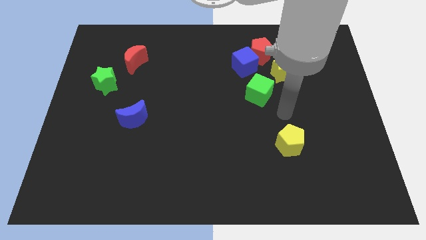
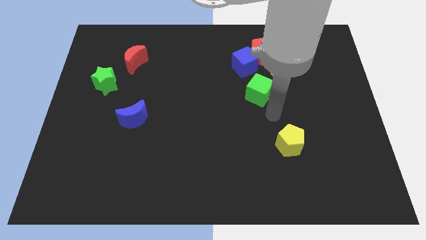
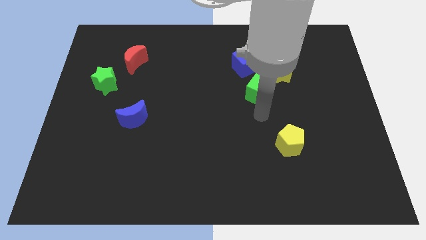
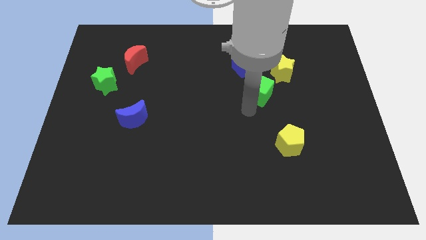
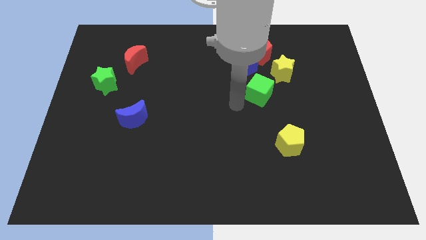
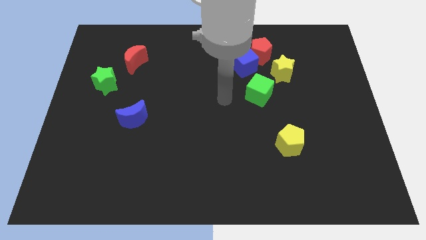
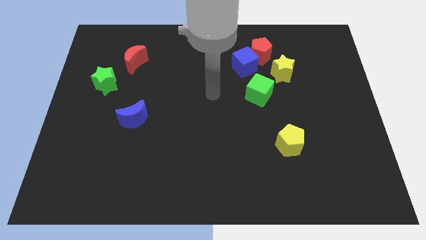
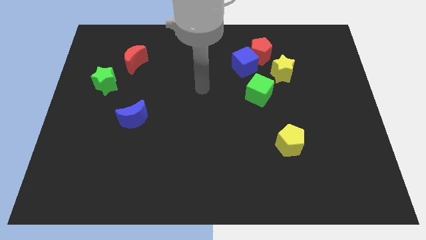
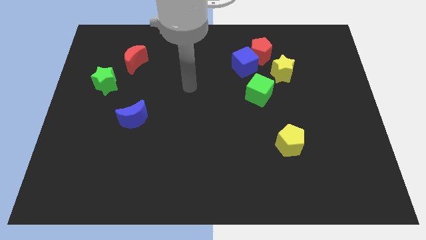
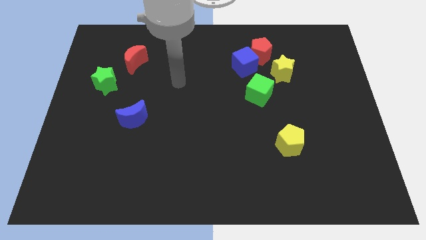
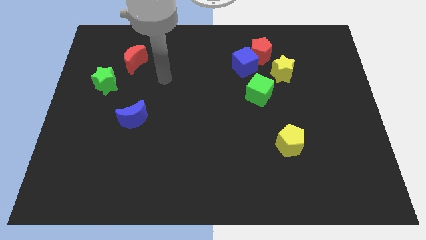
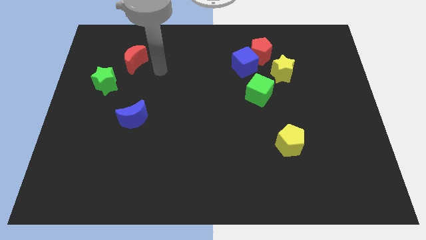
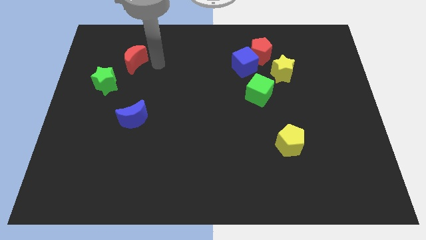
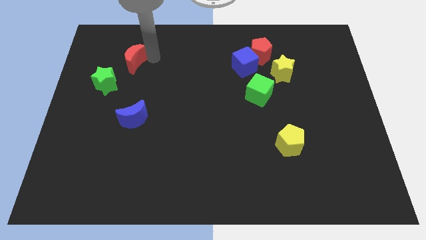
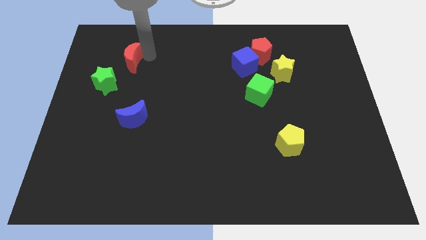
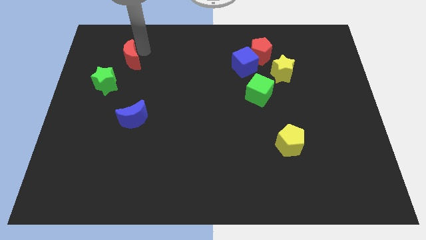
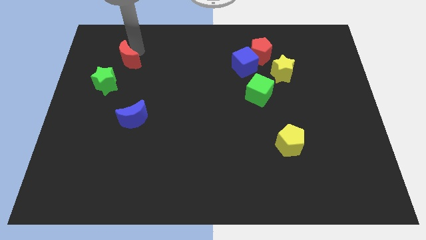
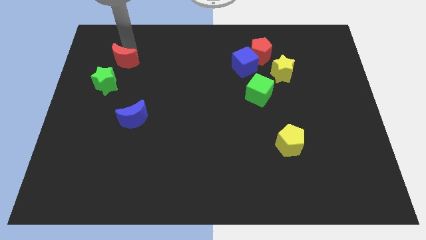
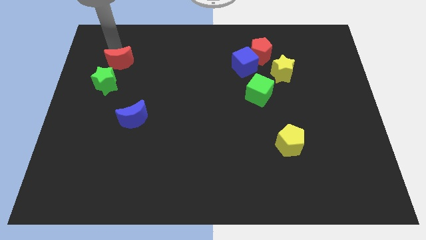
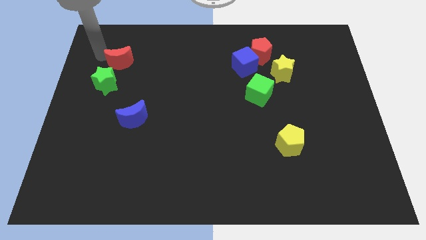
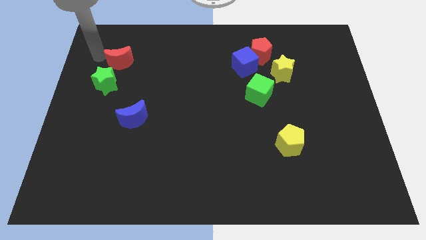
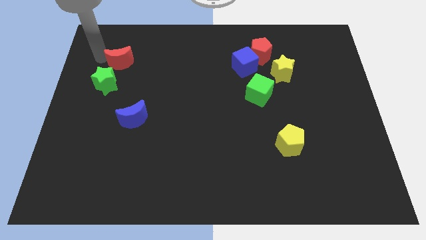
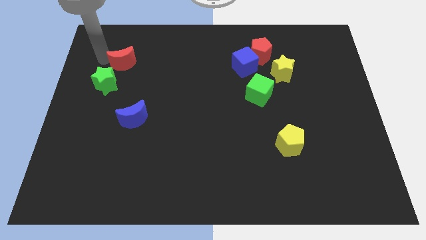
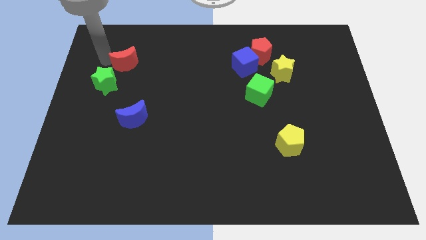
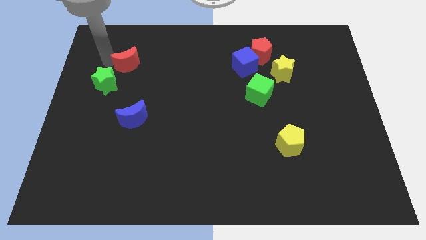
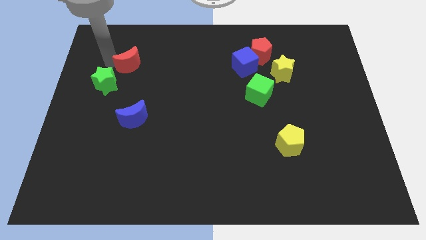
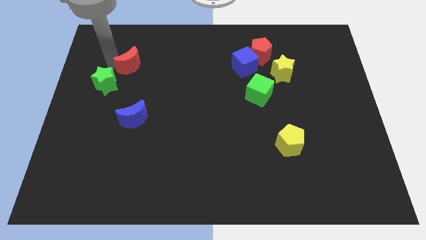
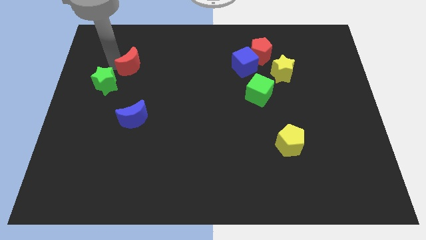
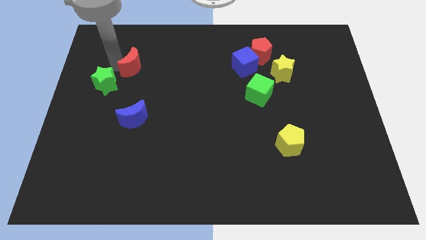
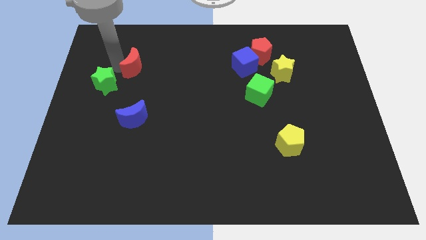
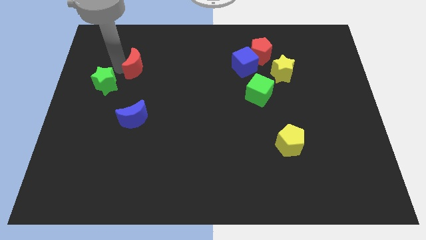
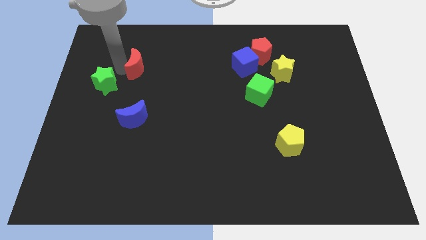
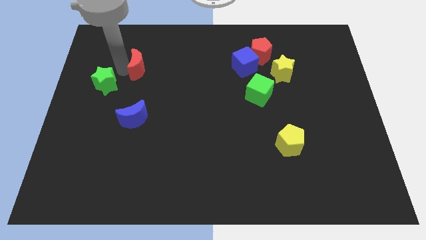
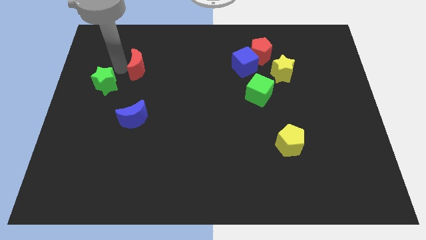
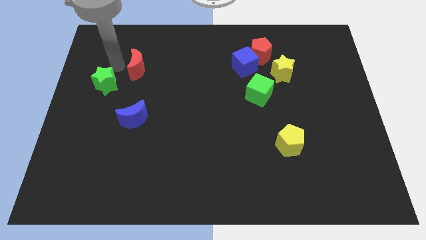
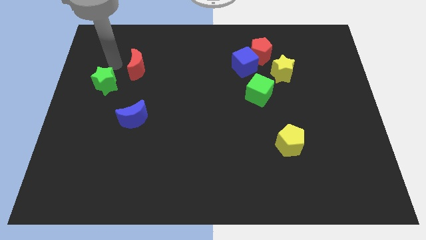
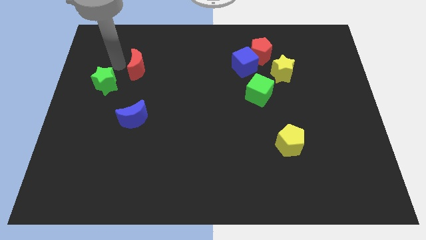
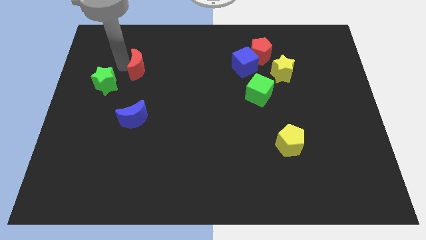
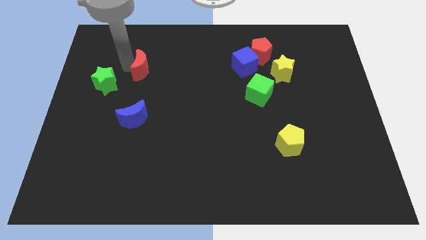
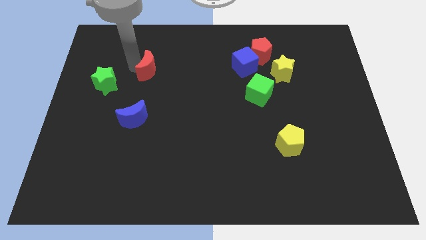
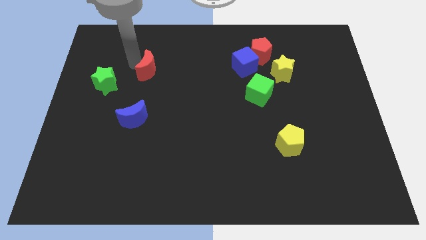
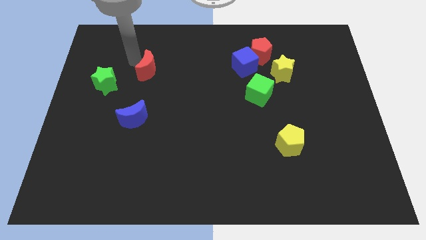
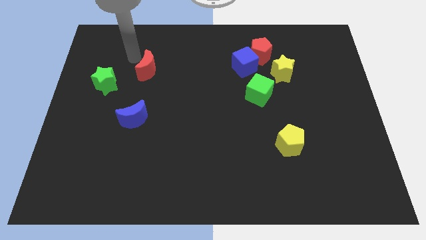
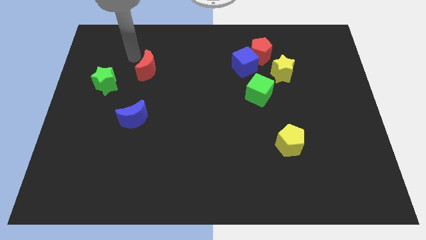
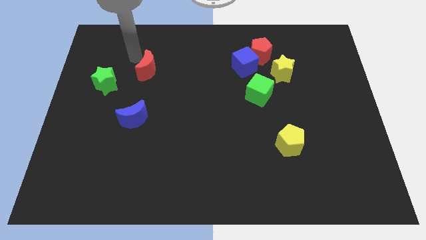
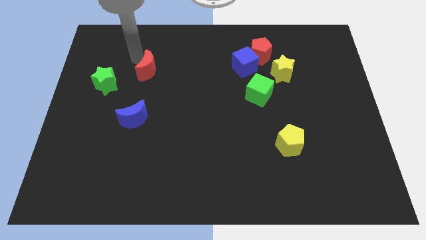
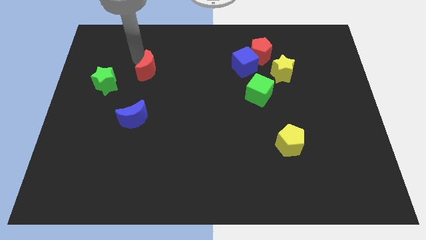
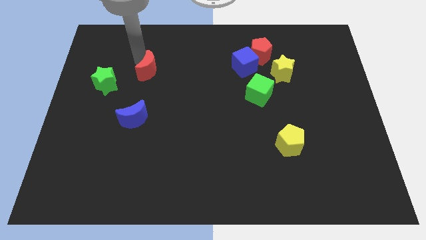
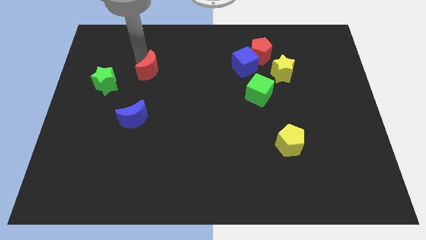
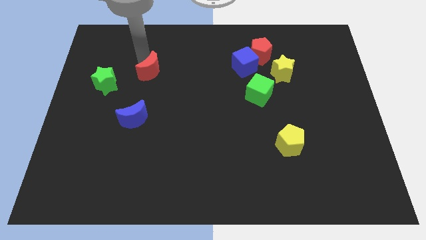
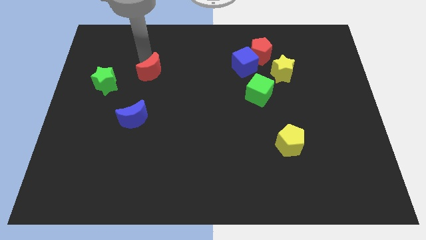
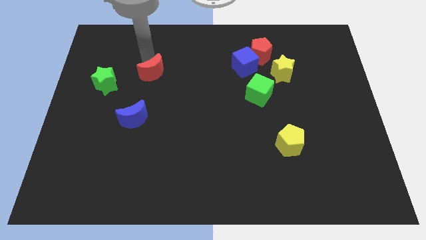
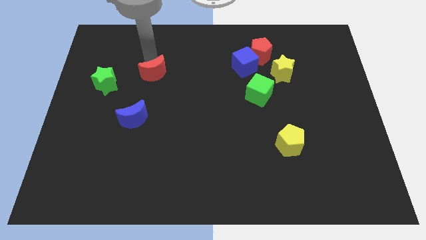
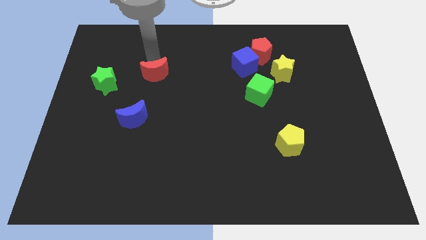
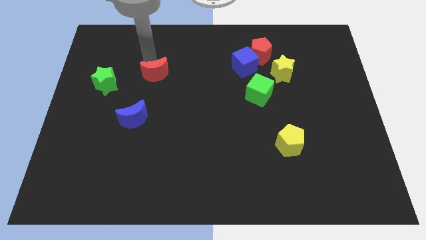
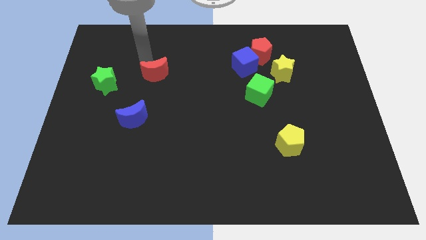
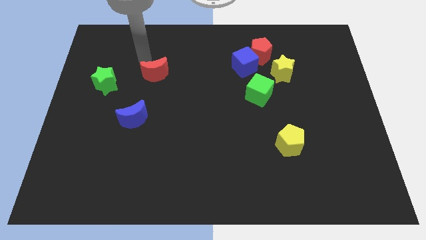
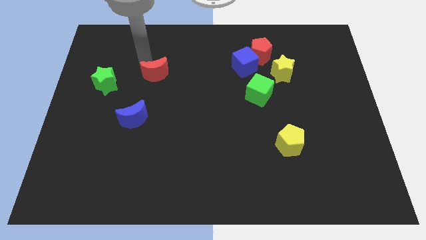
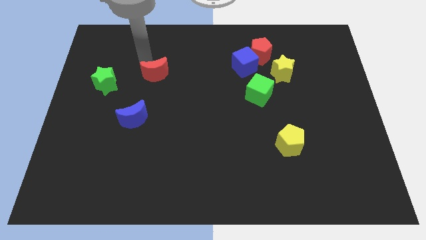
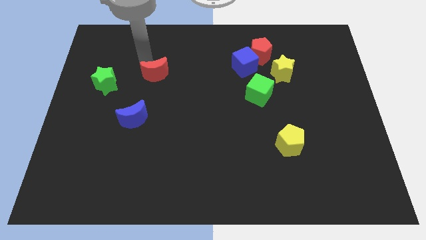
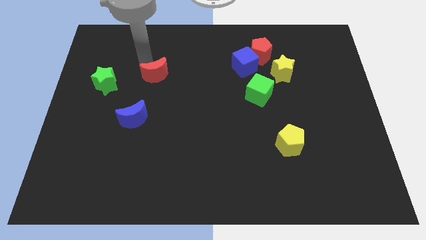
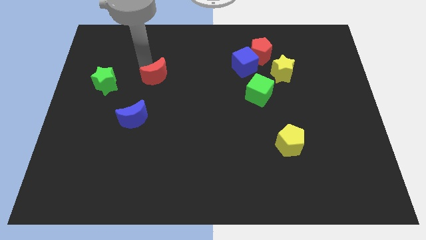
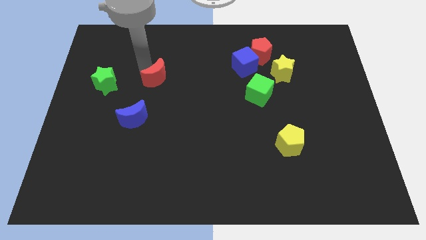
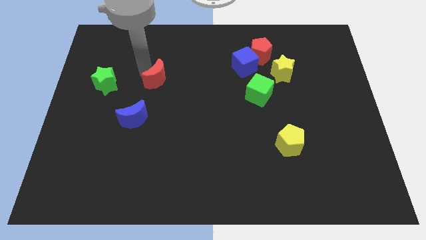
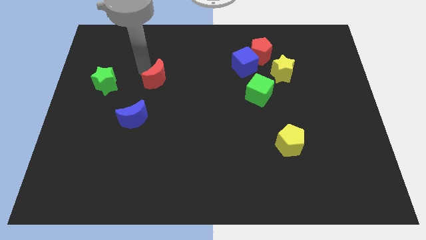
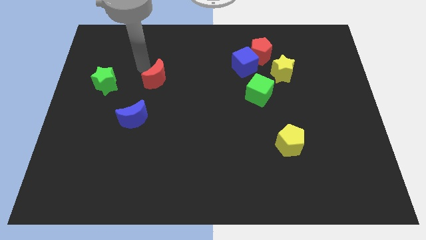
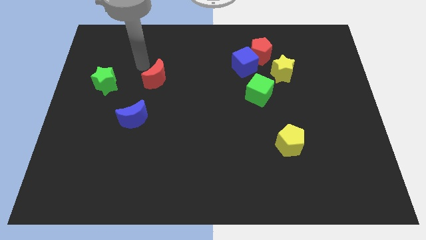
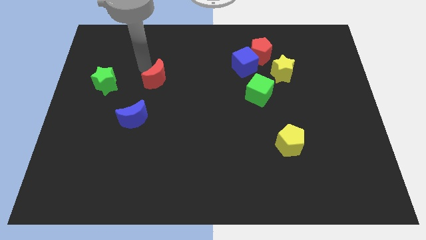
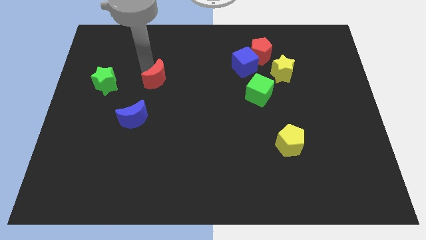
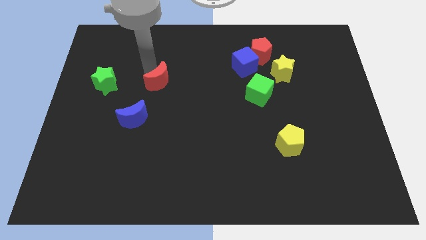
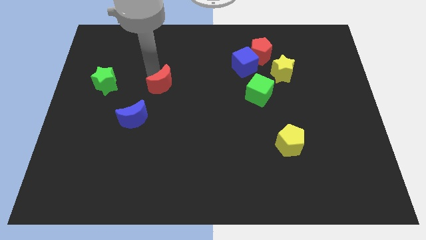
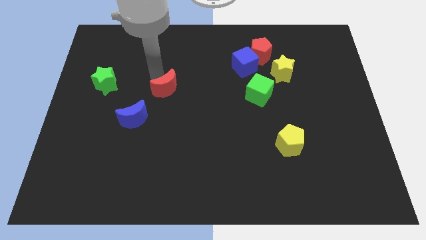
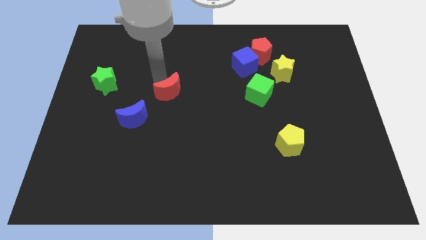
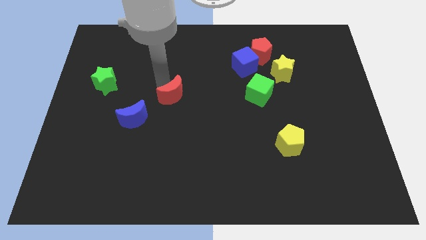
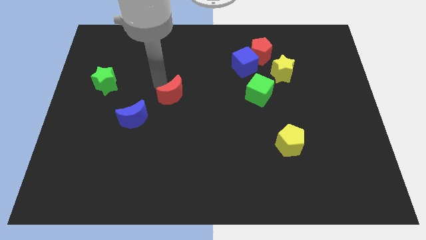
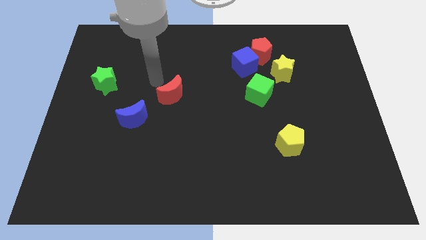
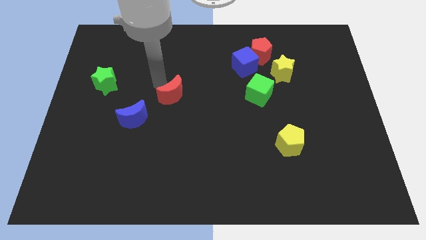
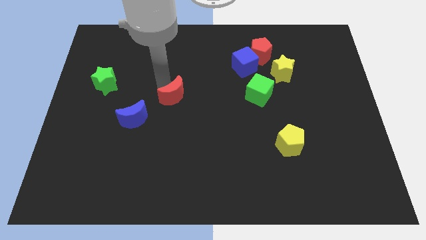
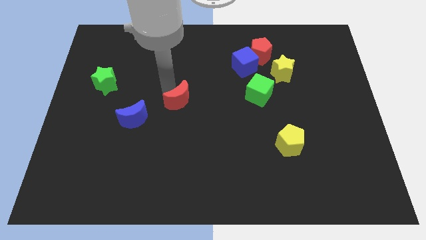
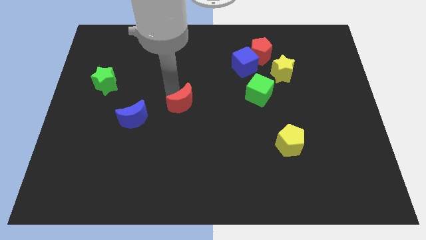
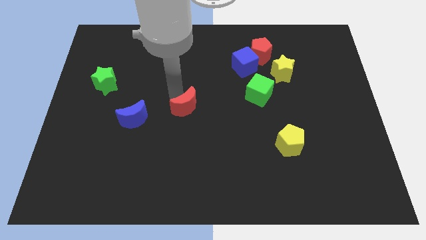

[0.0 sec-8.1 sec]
slide the red moon down and to the right diagonally

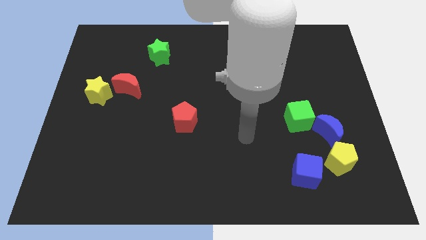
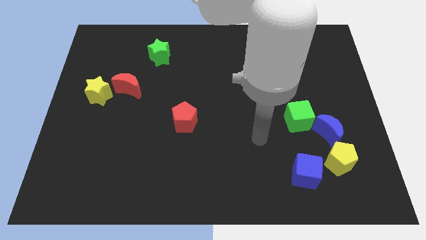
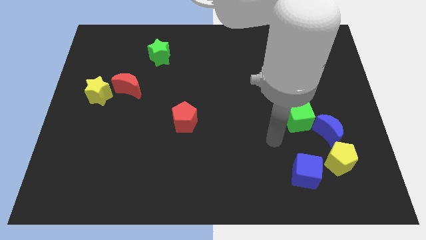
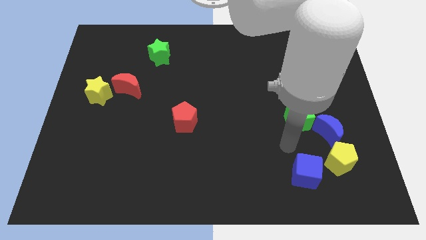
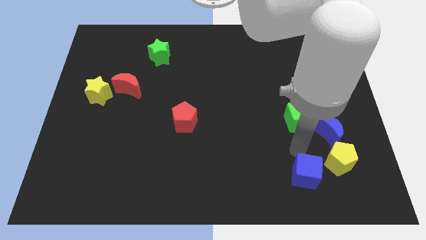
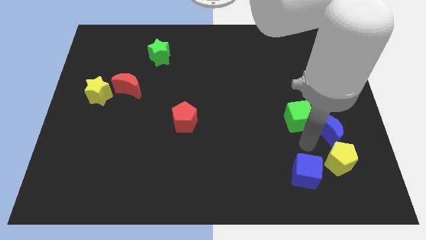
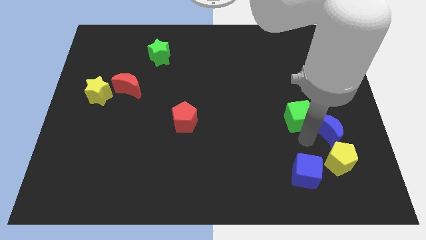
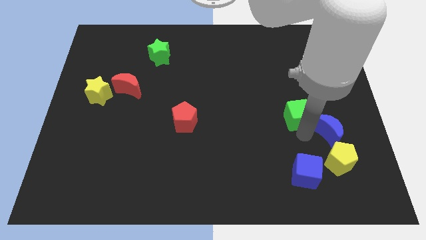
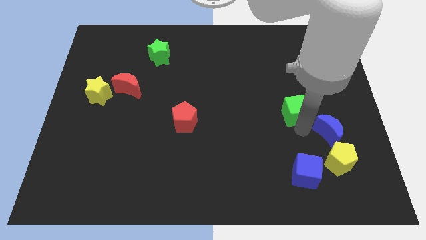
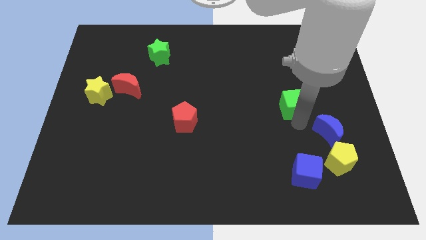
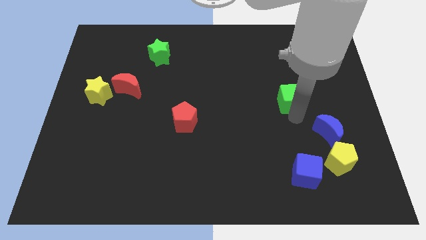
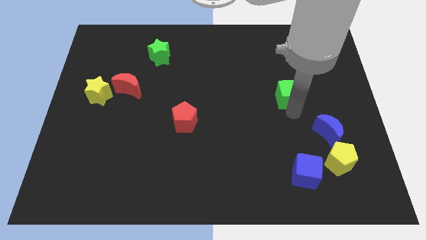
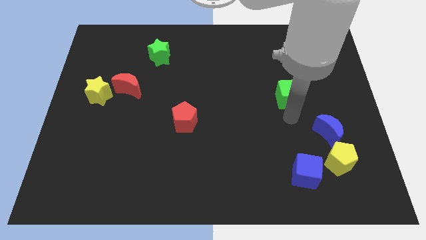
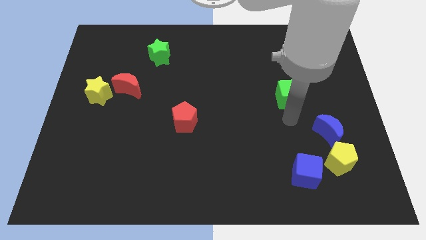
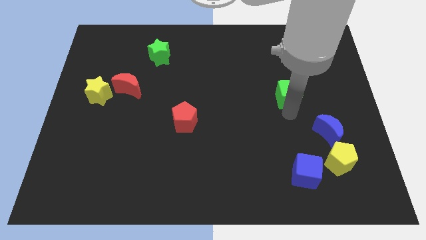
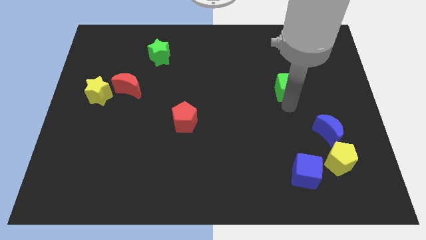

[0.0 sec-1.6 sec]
push the green cube a bit up
